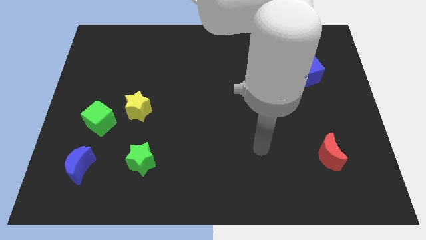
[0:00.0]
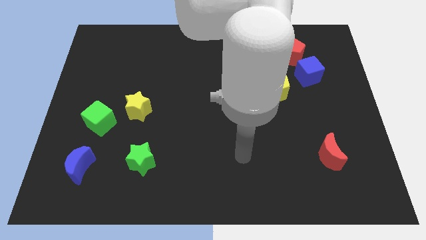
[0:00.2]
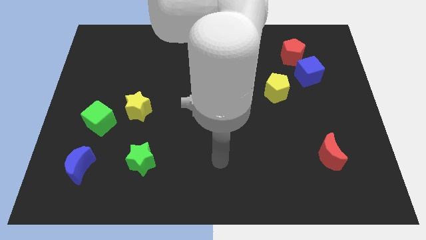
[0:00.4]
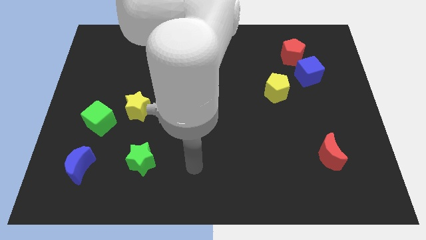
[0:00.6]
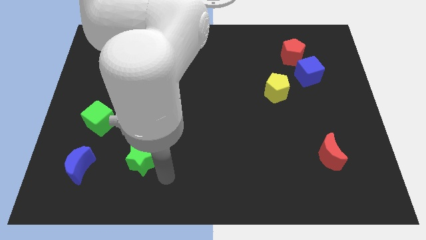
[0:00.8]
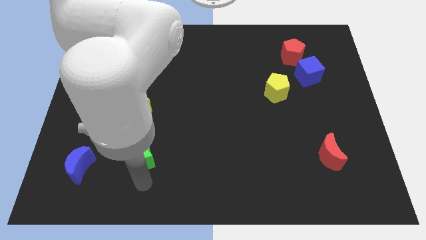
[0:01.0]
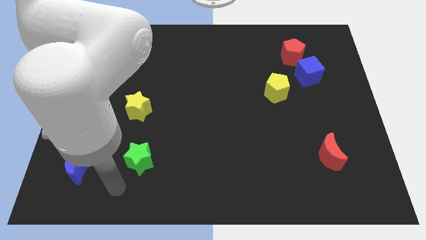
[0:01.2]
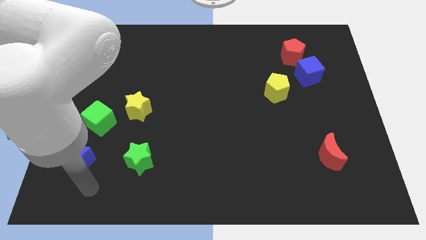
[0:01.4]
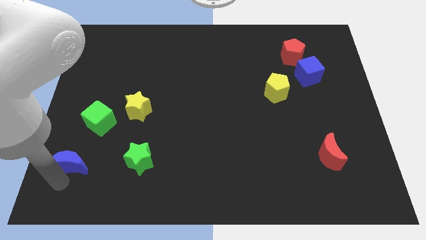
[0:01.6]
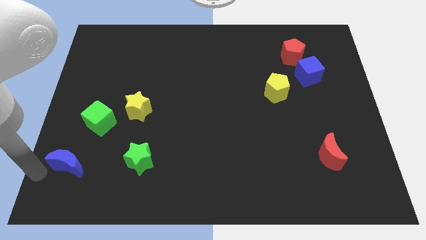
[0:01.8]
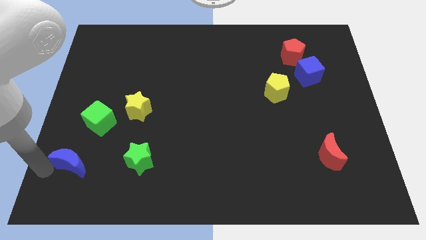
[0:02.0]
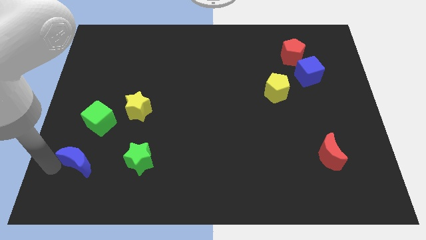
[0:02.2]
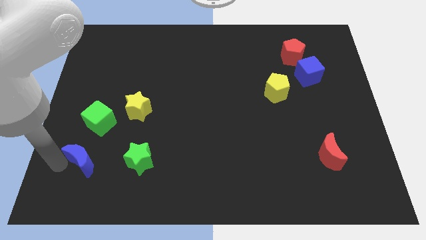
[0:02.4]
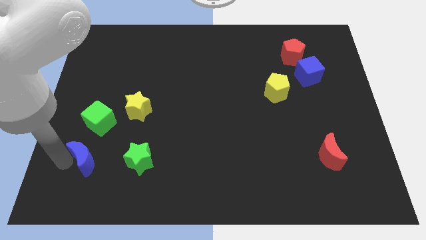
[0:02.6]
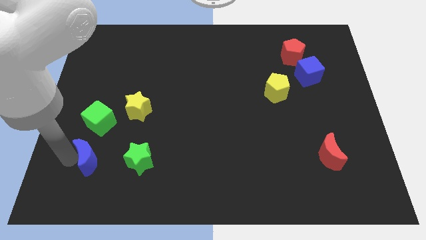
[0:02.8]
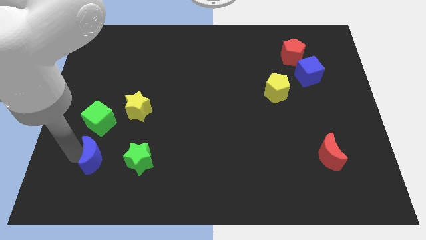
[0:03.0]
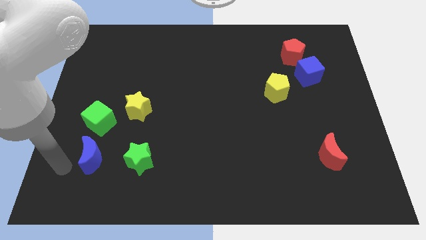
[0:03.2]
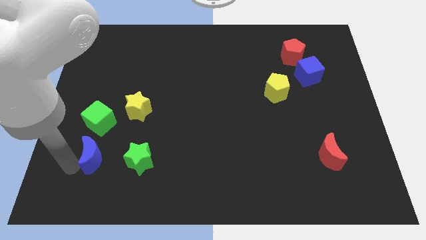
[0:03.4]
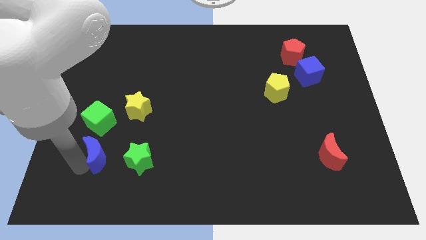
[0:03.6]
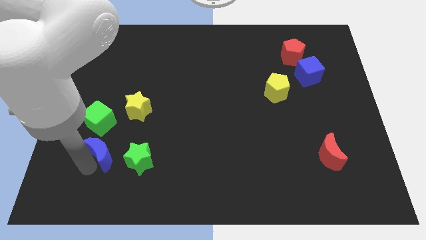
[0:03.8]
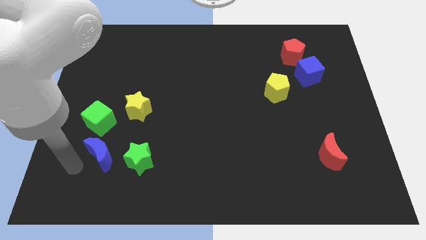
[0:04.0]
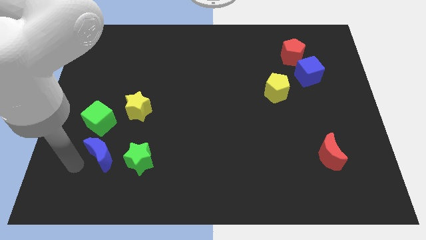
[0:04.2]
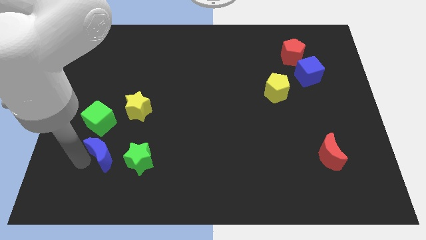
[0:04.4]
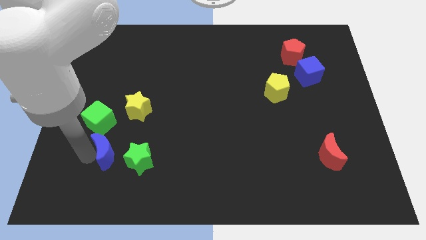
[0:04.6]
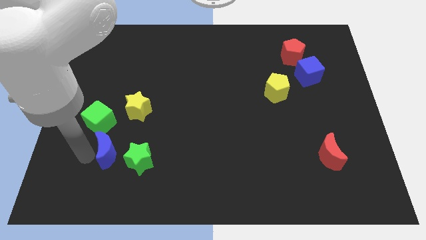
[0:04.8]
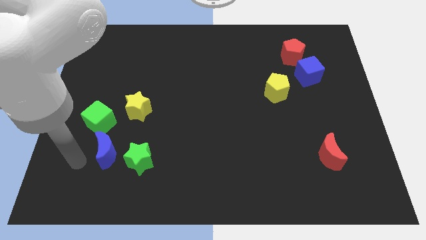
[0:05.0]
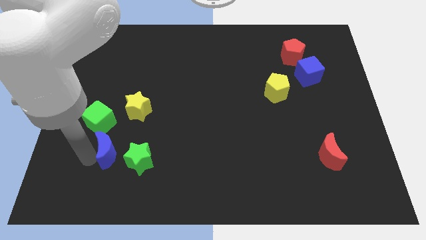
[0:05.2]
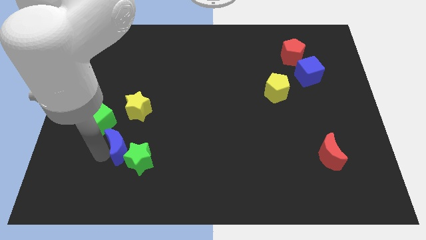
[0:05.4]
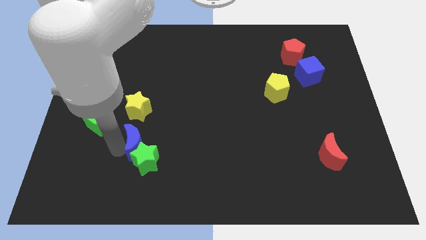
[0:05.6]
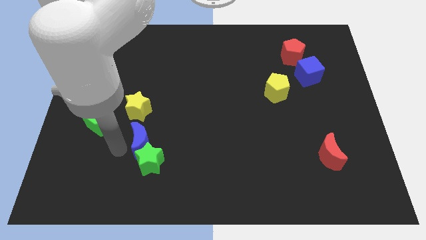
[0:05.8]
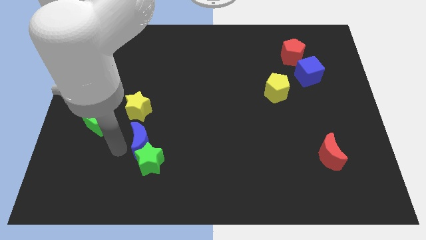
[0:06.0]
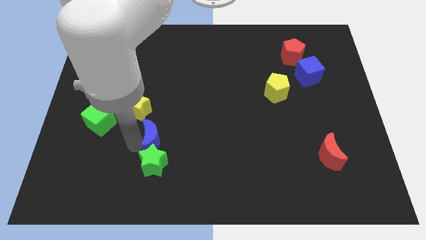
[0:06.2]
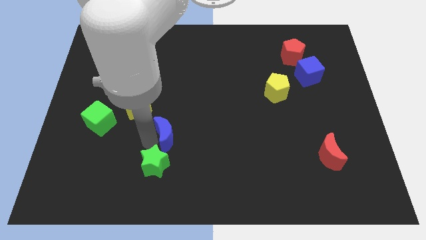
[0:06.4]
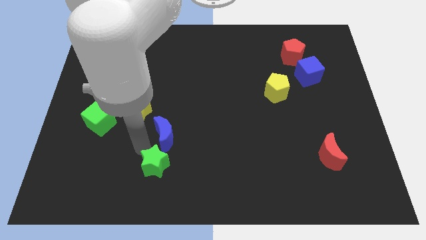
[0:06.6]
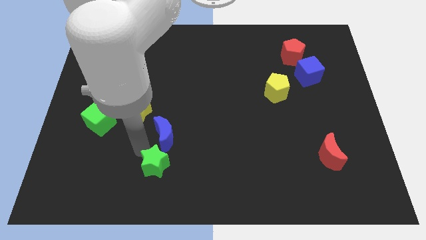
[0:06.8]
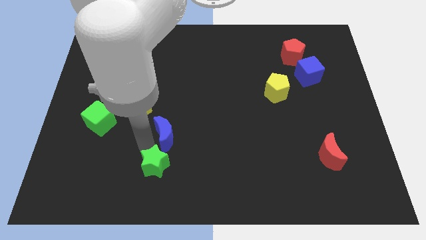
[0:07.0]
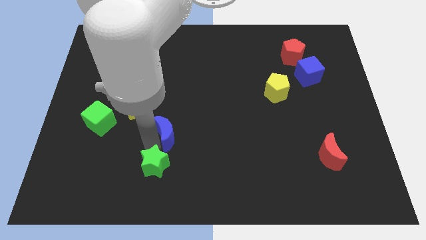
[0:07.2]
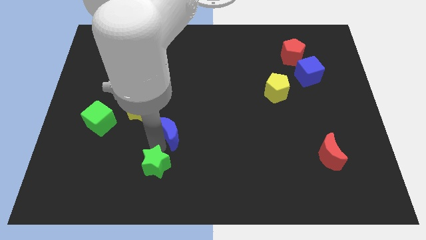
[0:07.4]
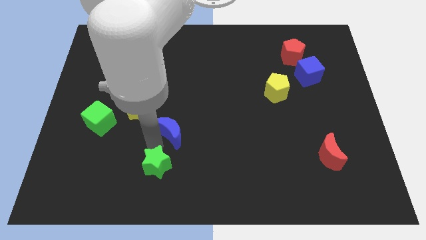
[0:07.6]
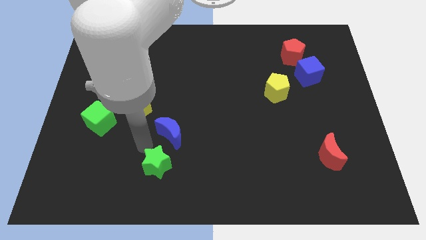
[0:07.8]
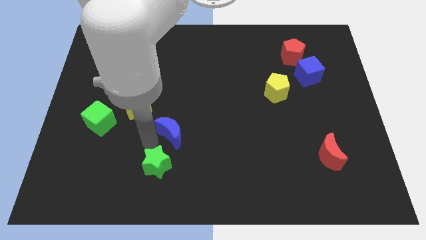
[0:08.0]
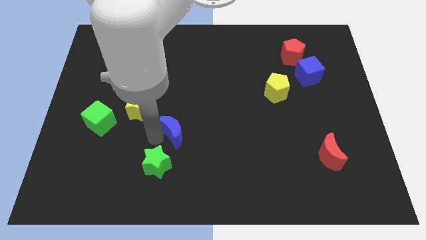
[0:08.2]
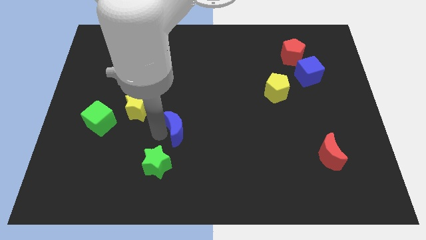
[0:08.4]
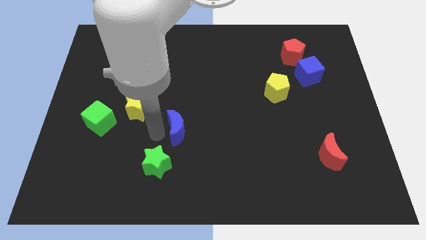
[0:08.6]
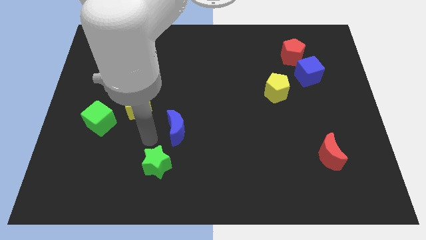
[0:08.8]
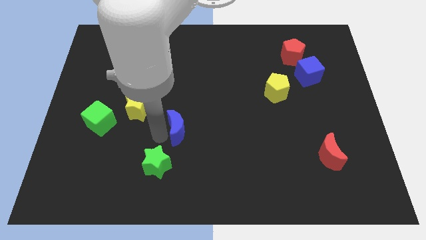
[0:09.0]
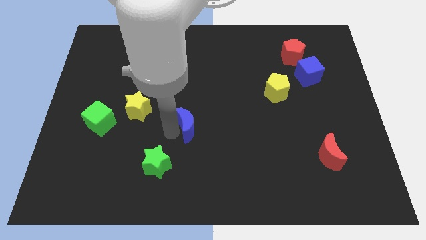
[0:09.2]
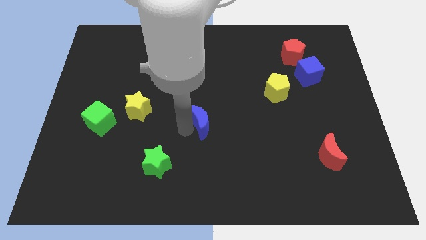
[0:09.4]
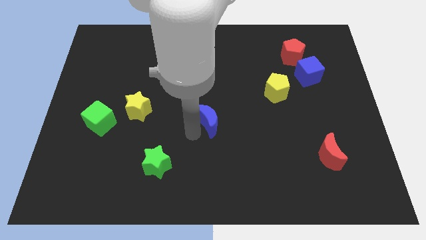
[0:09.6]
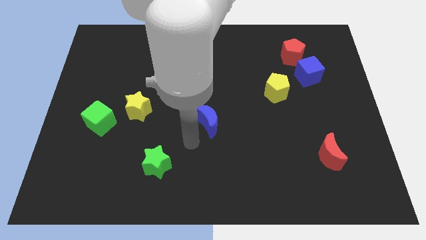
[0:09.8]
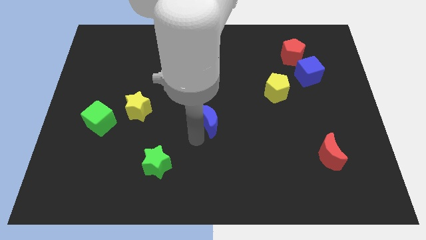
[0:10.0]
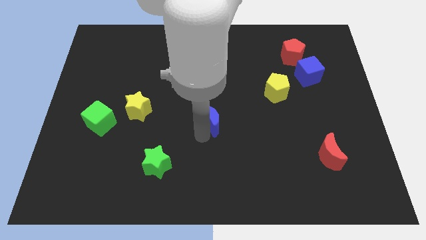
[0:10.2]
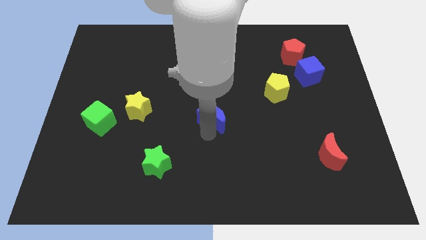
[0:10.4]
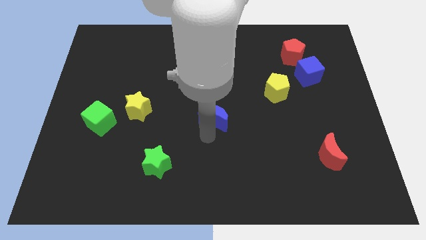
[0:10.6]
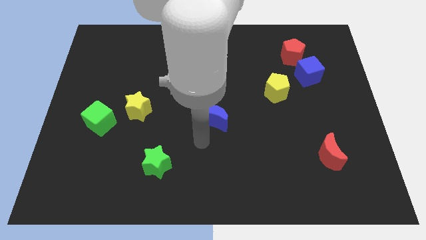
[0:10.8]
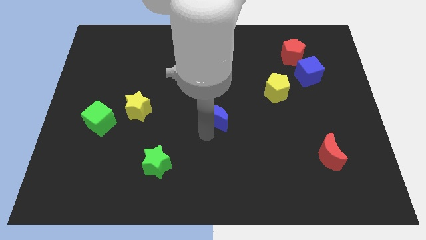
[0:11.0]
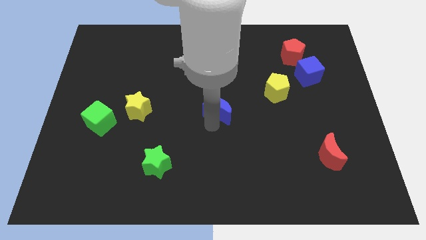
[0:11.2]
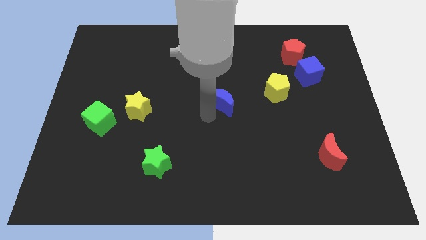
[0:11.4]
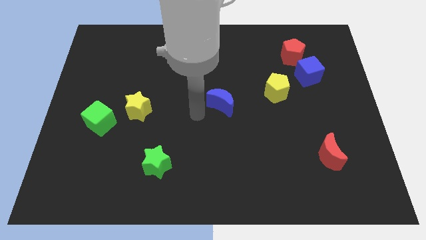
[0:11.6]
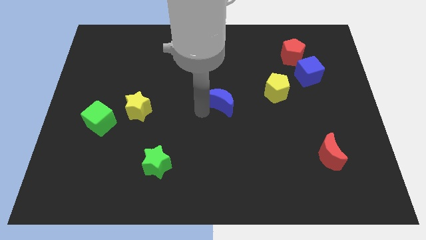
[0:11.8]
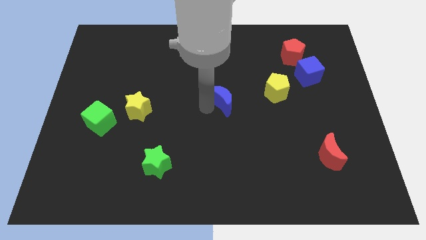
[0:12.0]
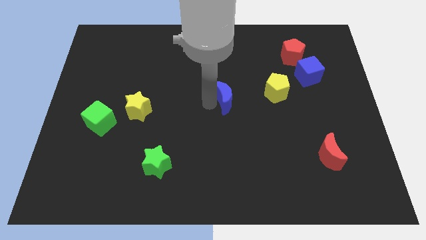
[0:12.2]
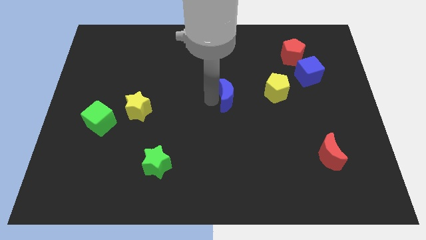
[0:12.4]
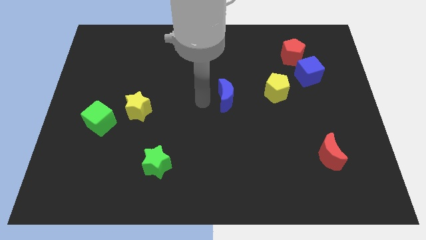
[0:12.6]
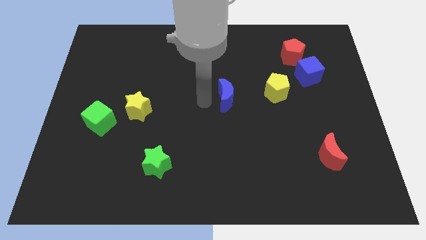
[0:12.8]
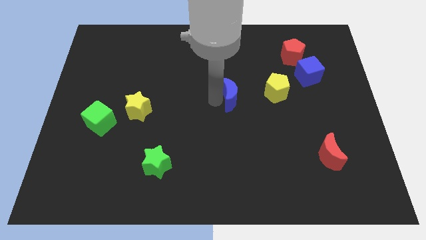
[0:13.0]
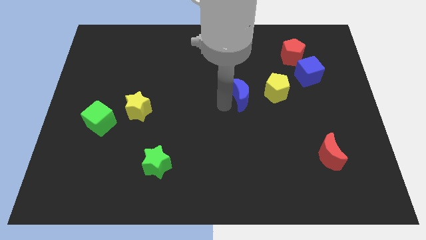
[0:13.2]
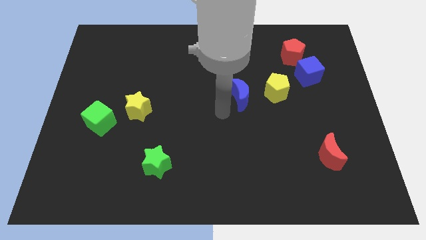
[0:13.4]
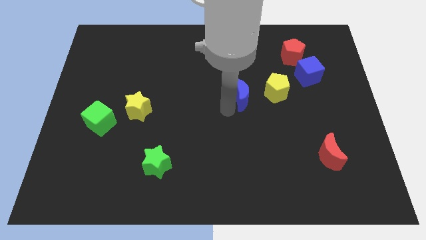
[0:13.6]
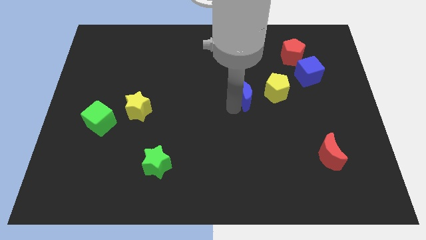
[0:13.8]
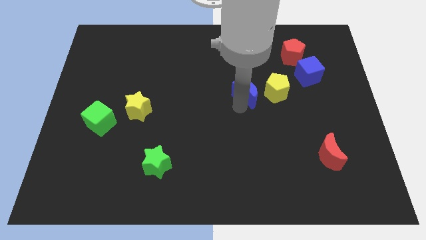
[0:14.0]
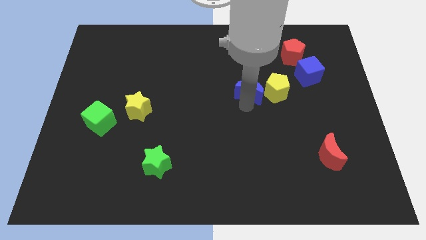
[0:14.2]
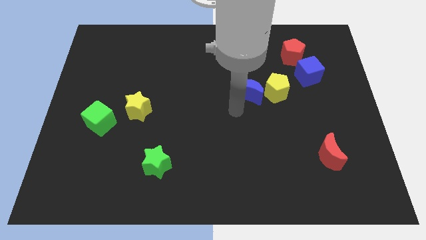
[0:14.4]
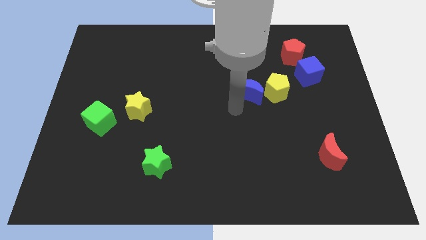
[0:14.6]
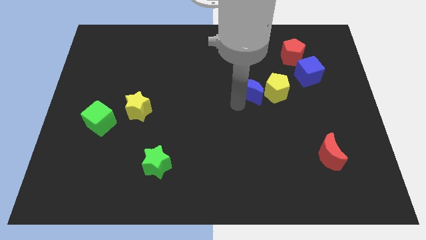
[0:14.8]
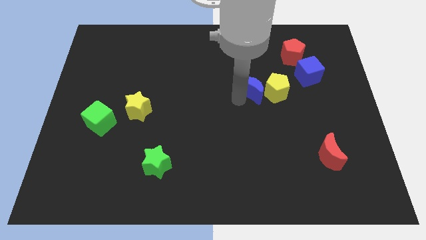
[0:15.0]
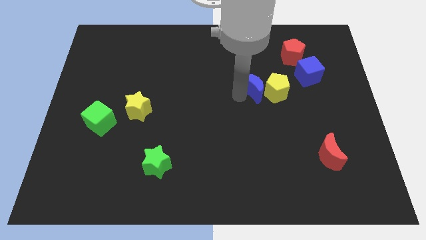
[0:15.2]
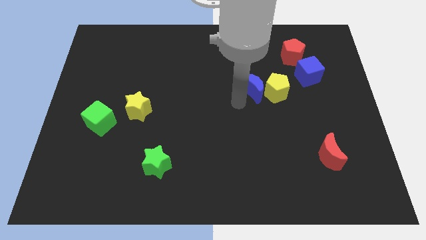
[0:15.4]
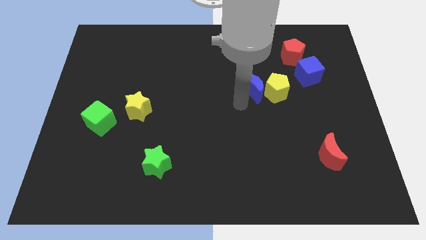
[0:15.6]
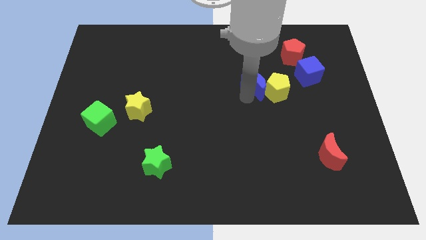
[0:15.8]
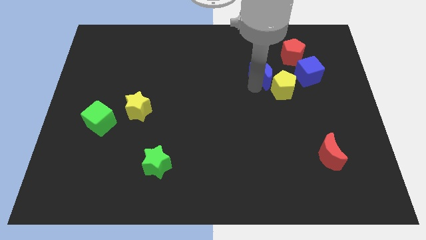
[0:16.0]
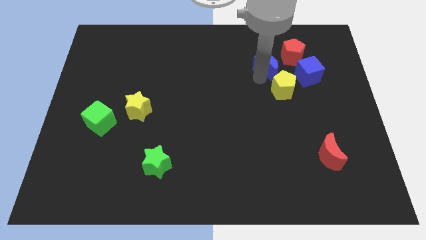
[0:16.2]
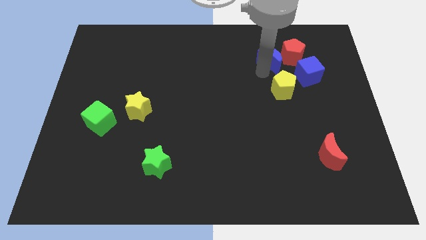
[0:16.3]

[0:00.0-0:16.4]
put the blue moon to the red pentagon
